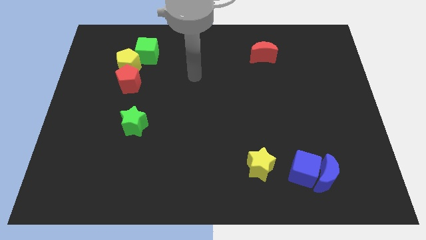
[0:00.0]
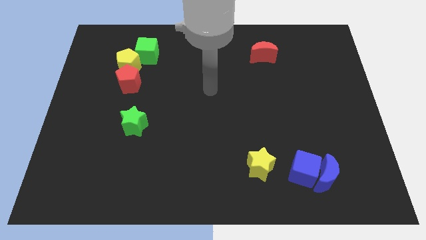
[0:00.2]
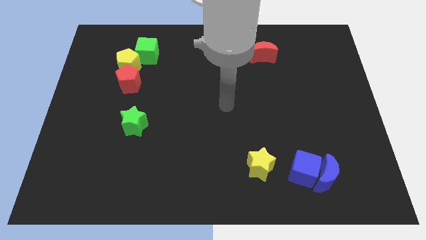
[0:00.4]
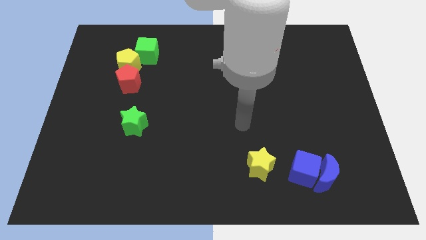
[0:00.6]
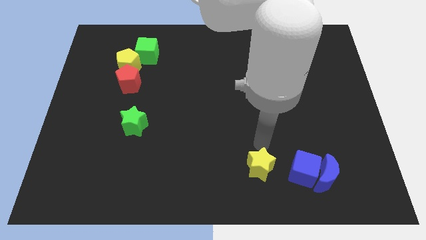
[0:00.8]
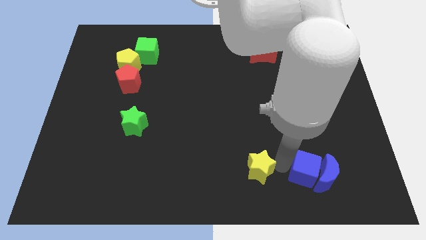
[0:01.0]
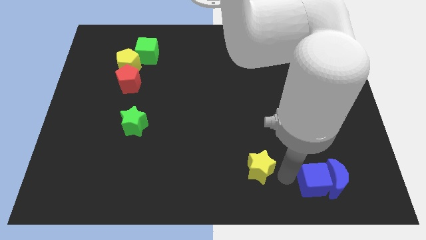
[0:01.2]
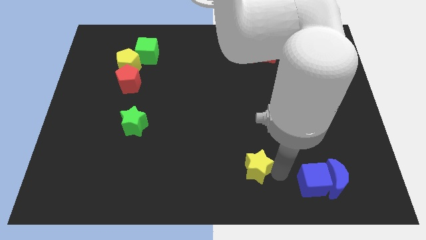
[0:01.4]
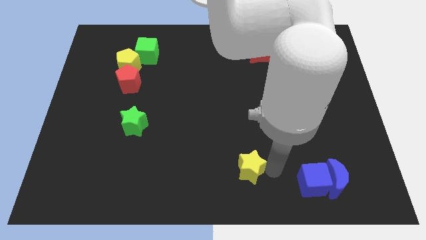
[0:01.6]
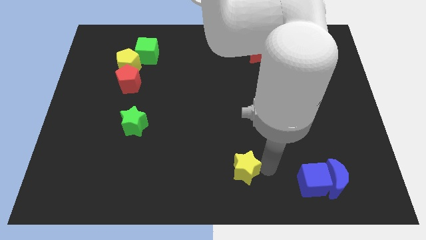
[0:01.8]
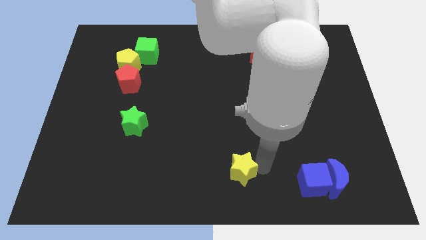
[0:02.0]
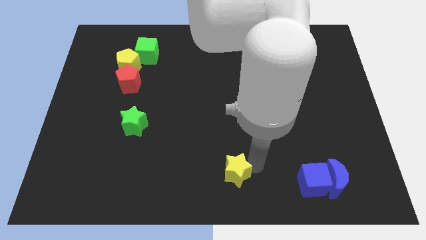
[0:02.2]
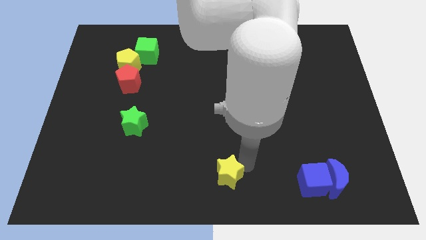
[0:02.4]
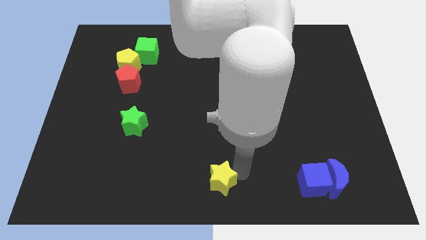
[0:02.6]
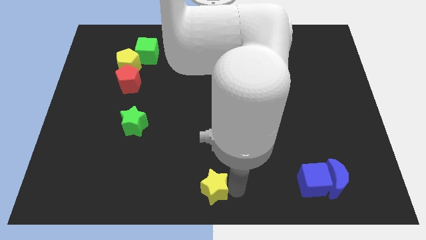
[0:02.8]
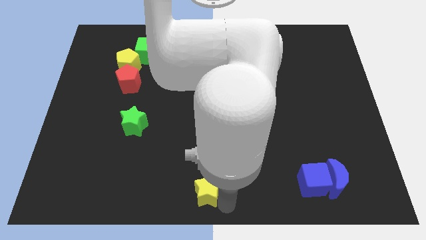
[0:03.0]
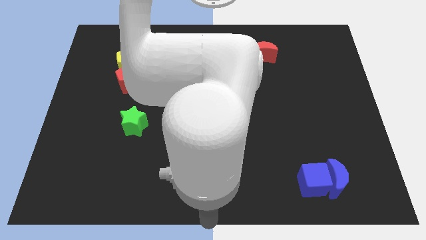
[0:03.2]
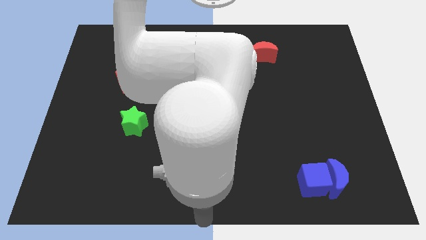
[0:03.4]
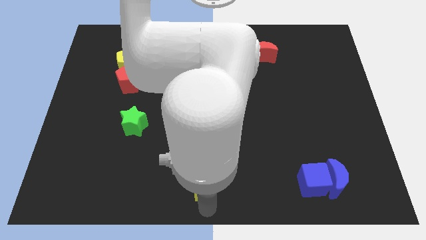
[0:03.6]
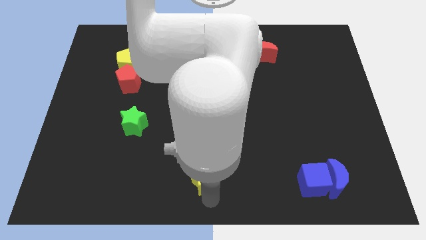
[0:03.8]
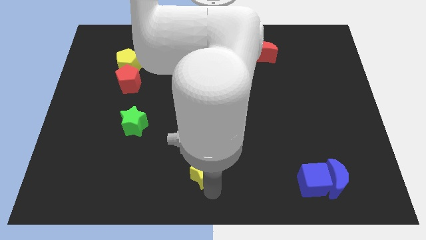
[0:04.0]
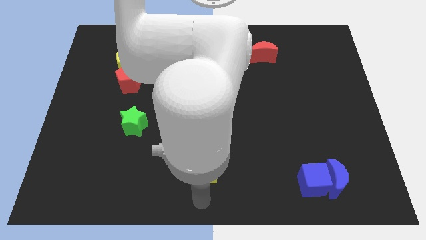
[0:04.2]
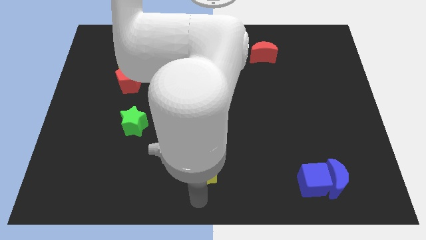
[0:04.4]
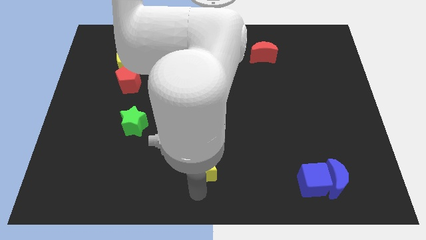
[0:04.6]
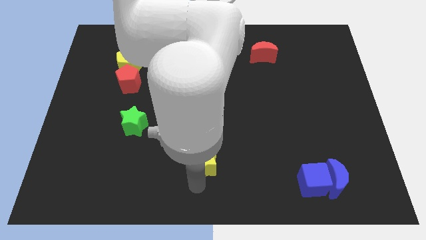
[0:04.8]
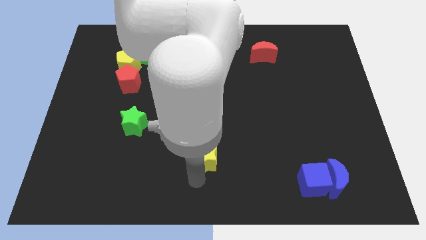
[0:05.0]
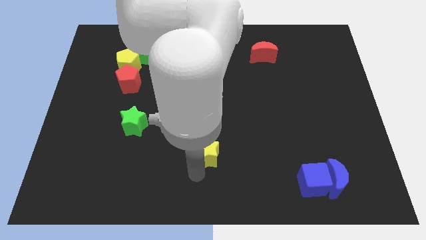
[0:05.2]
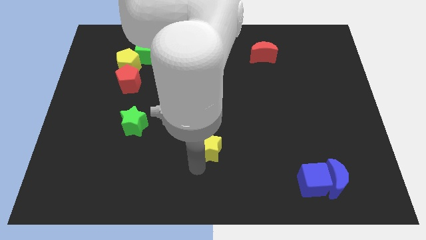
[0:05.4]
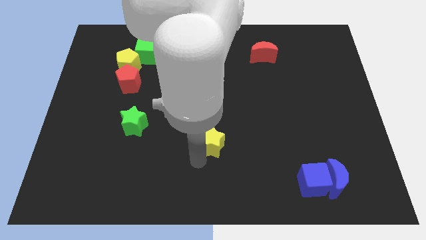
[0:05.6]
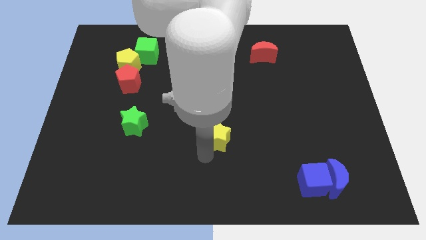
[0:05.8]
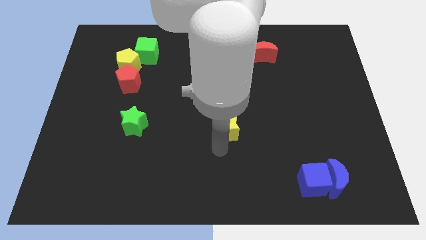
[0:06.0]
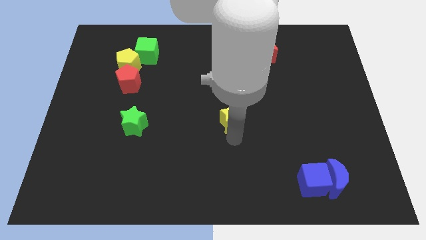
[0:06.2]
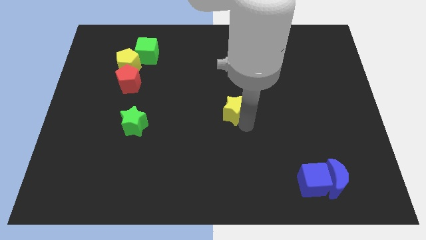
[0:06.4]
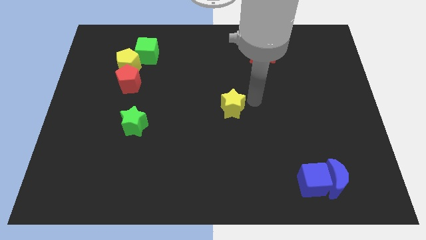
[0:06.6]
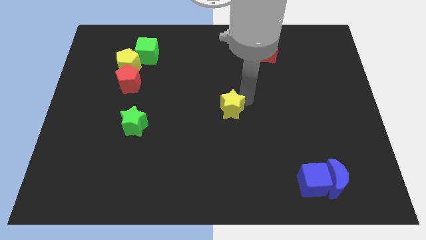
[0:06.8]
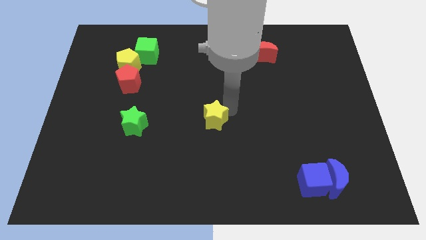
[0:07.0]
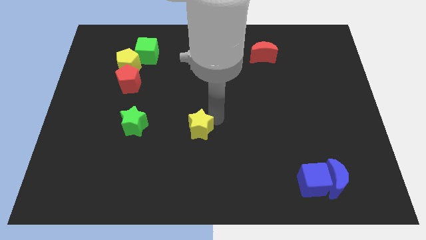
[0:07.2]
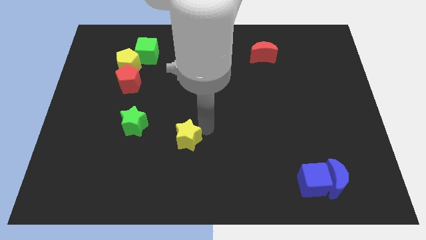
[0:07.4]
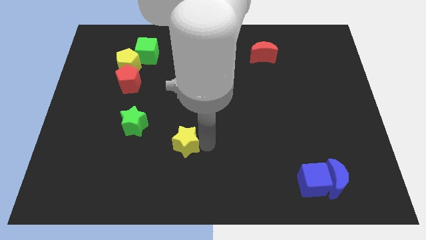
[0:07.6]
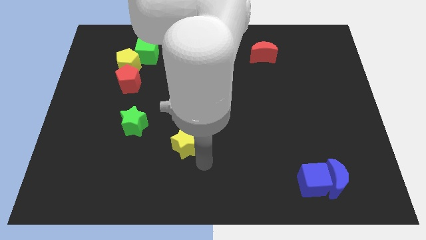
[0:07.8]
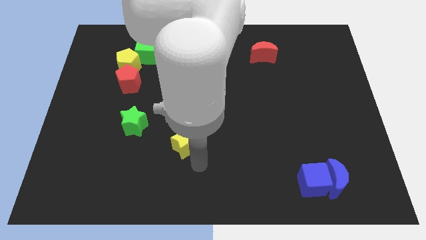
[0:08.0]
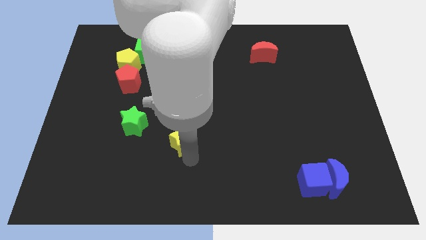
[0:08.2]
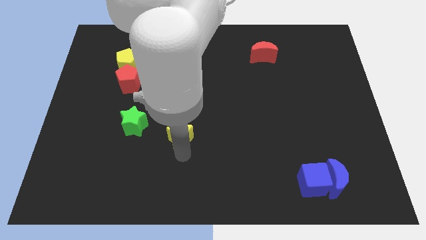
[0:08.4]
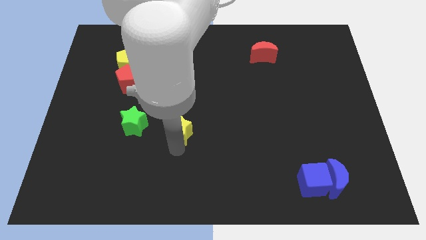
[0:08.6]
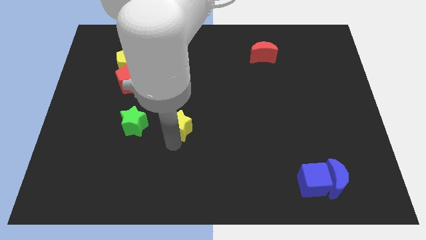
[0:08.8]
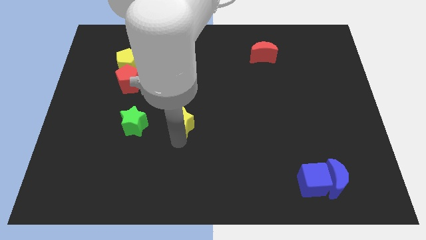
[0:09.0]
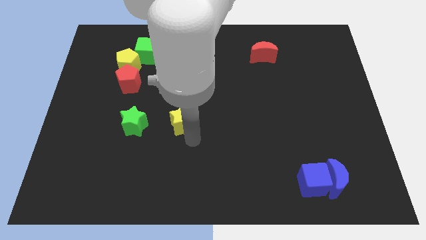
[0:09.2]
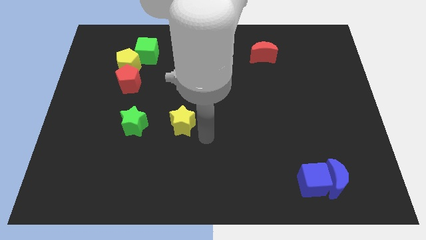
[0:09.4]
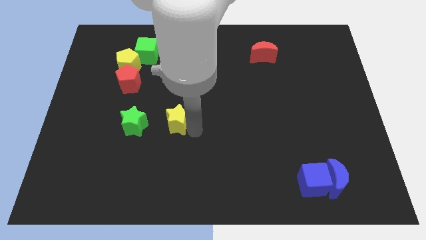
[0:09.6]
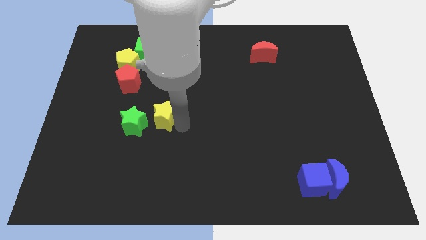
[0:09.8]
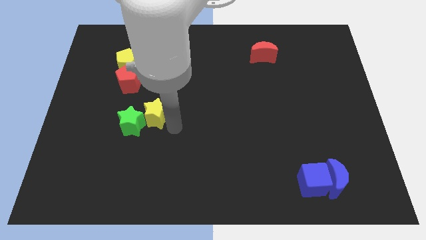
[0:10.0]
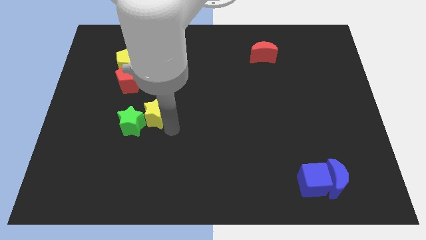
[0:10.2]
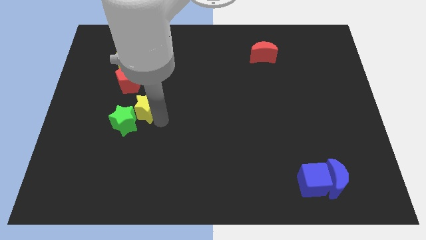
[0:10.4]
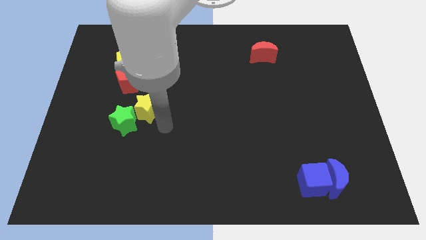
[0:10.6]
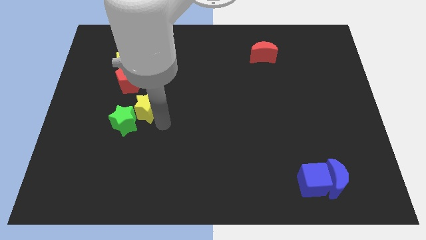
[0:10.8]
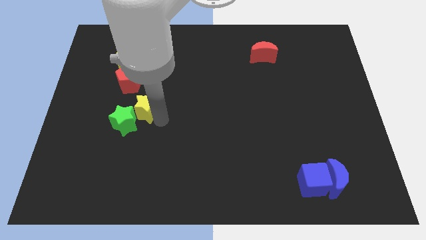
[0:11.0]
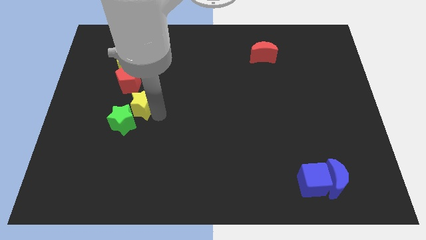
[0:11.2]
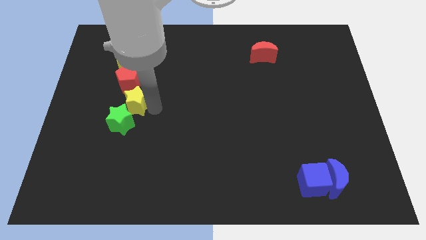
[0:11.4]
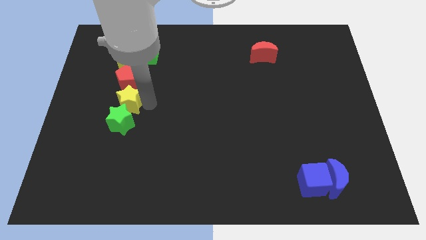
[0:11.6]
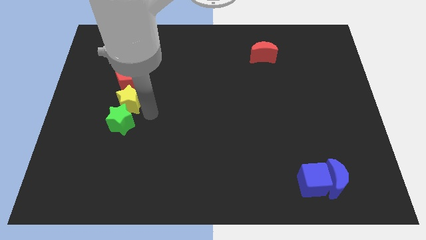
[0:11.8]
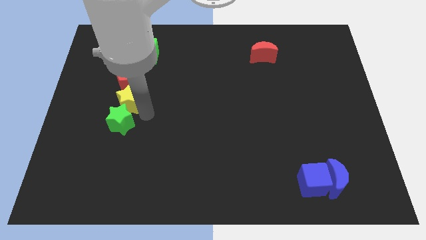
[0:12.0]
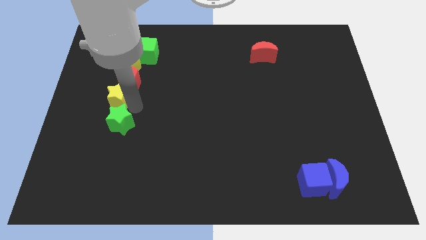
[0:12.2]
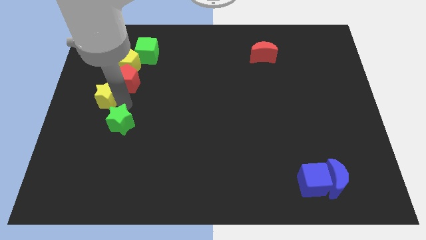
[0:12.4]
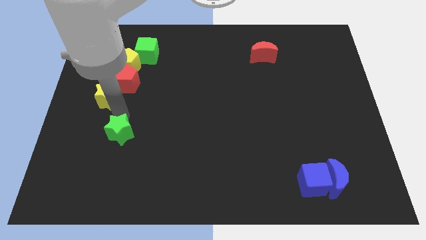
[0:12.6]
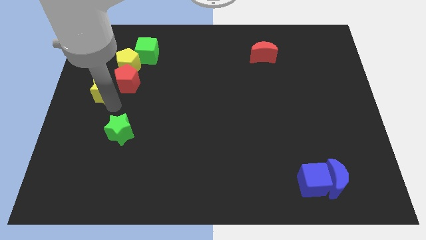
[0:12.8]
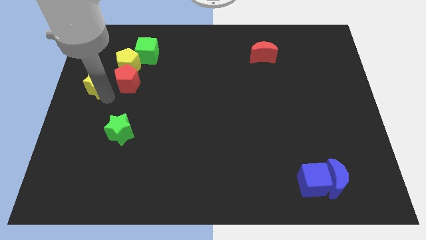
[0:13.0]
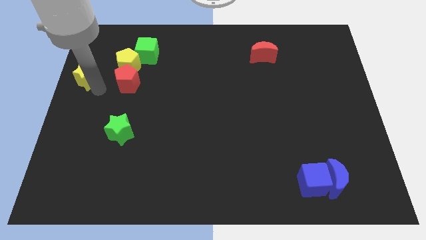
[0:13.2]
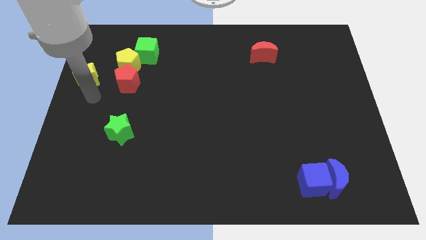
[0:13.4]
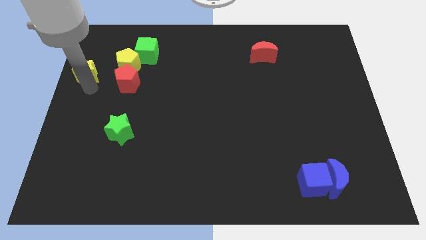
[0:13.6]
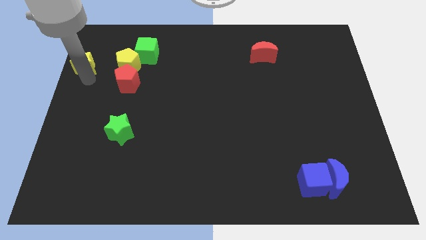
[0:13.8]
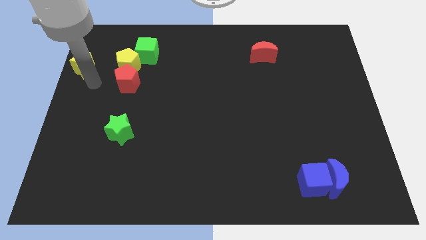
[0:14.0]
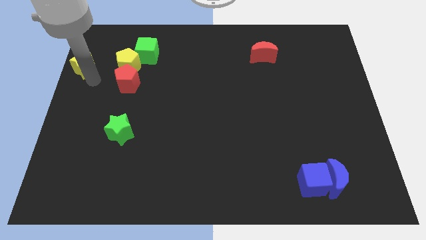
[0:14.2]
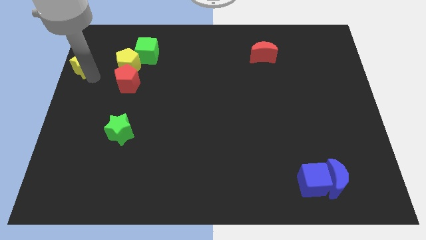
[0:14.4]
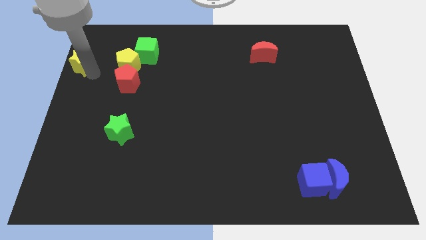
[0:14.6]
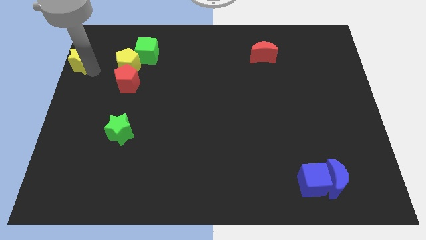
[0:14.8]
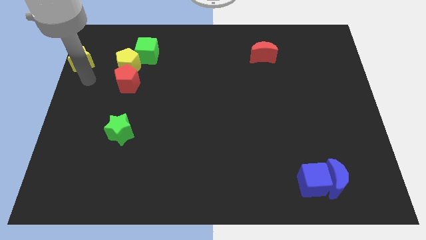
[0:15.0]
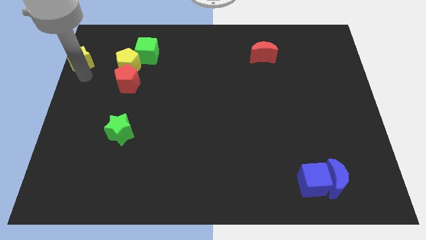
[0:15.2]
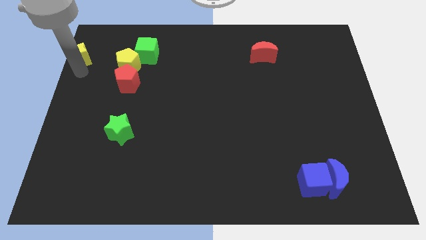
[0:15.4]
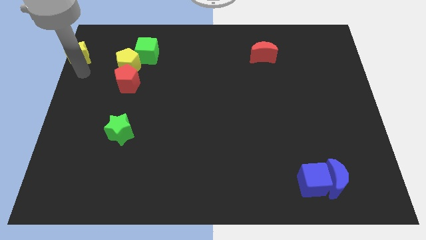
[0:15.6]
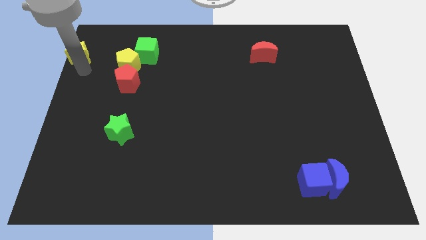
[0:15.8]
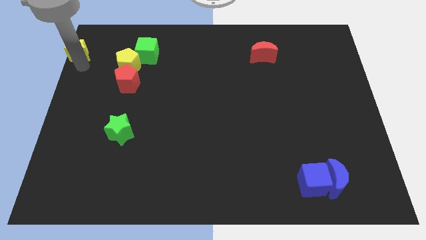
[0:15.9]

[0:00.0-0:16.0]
move the yellow star to the top left of the board
